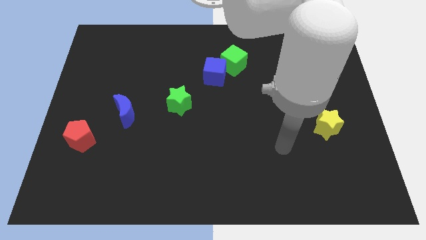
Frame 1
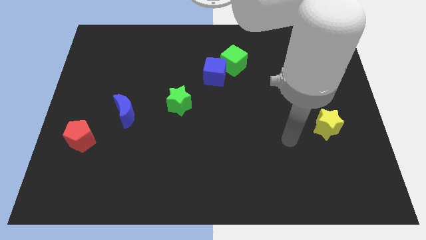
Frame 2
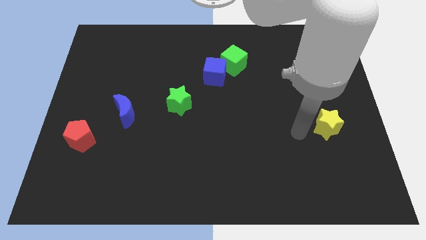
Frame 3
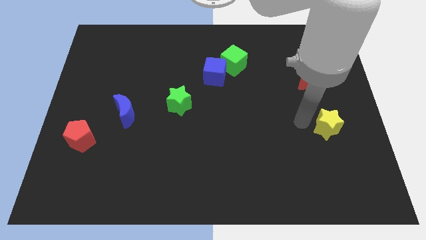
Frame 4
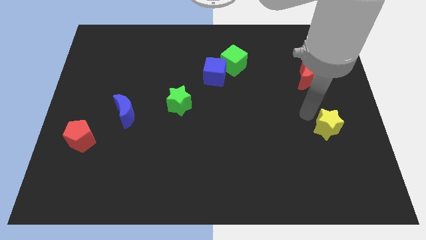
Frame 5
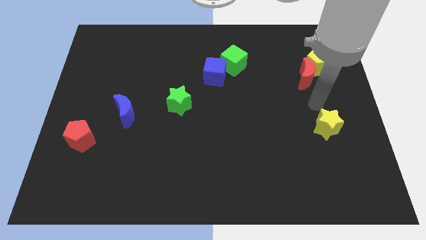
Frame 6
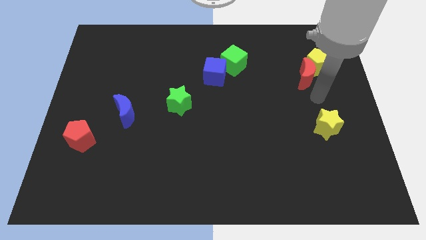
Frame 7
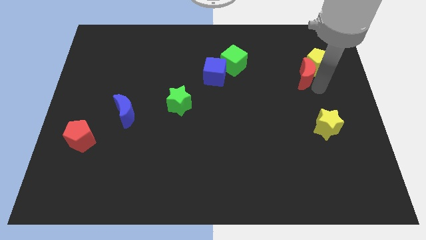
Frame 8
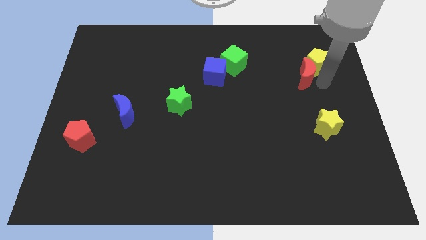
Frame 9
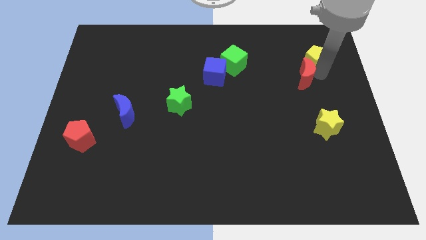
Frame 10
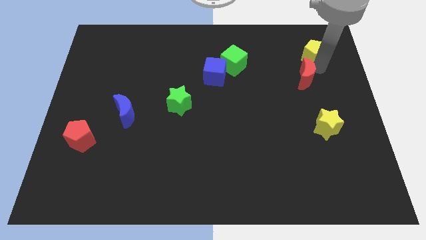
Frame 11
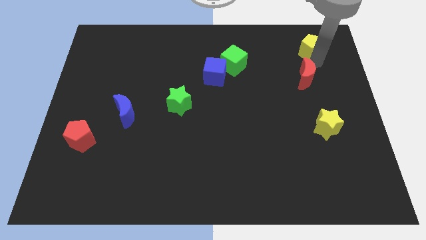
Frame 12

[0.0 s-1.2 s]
pull the red moon apart from the yellow pentagon

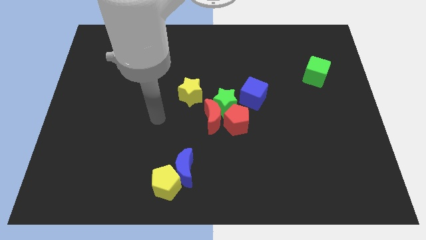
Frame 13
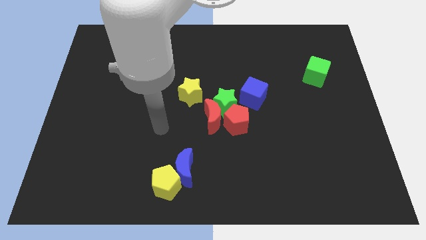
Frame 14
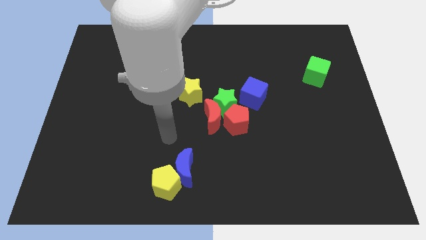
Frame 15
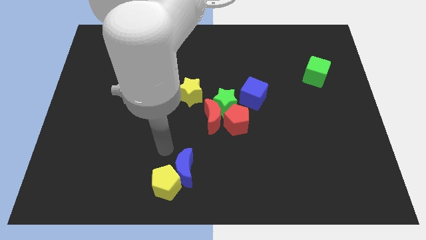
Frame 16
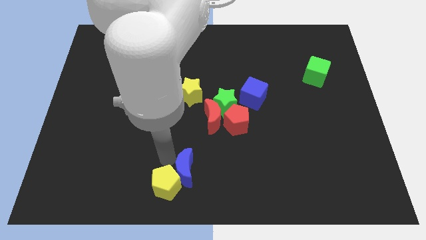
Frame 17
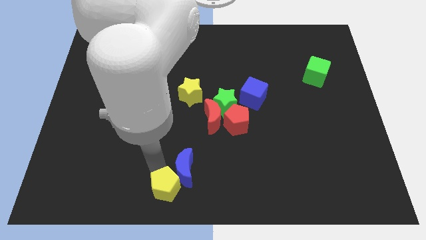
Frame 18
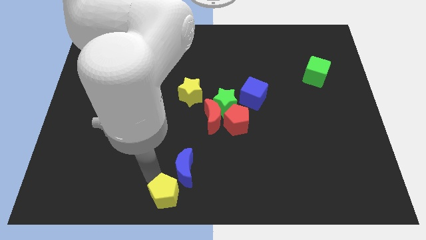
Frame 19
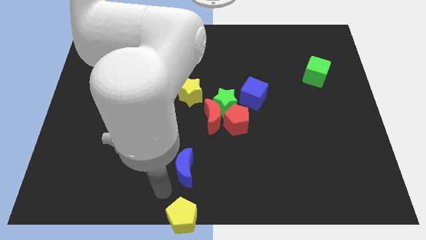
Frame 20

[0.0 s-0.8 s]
move the blue moon away from the yellow pentagon

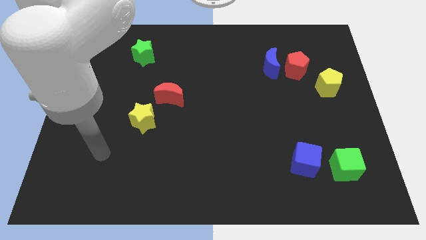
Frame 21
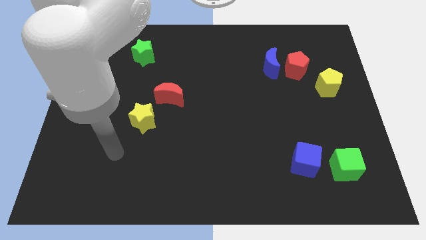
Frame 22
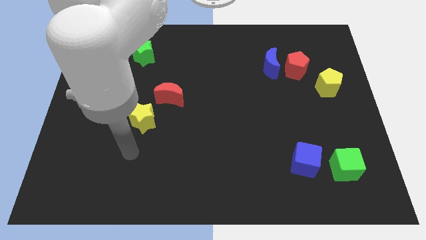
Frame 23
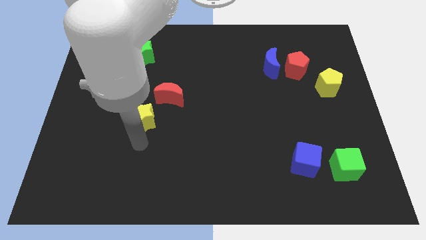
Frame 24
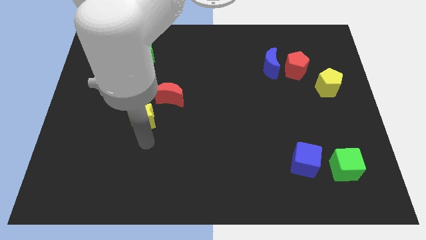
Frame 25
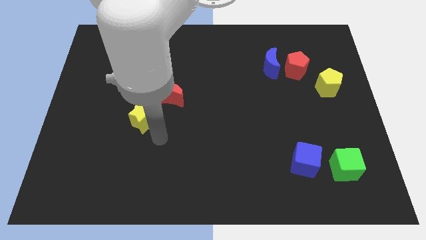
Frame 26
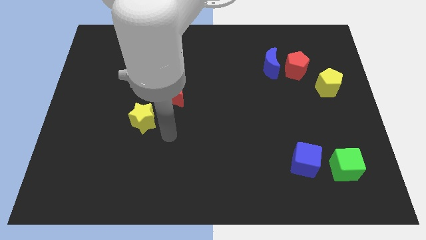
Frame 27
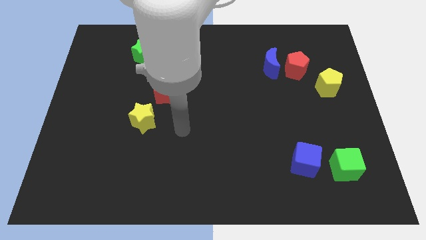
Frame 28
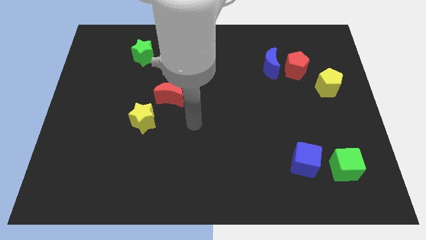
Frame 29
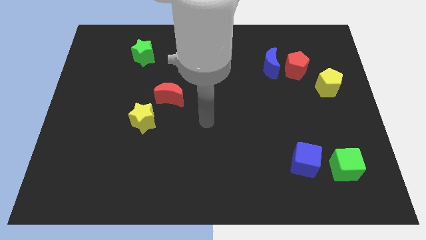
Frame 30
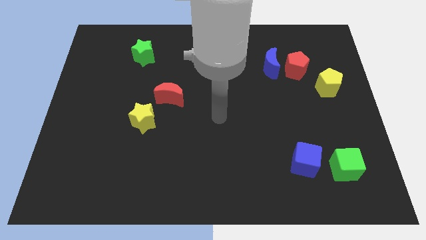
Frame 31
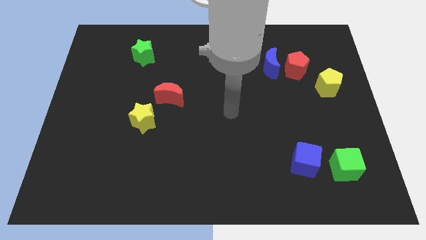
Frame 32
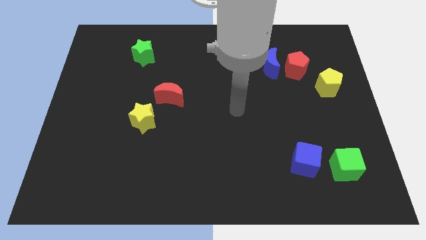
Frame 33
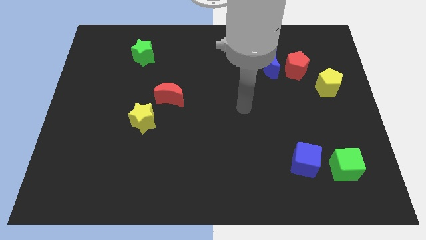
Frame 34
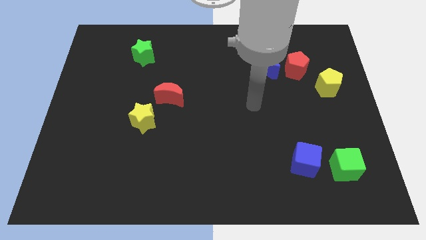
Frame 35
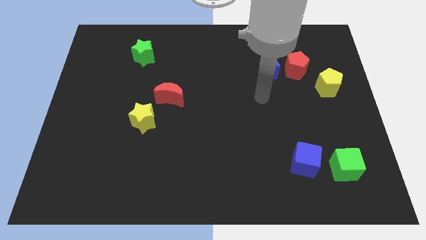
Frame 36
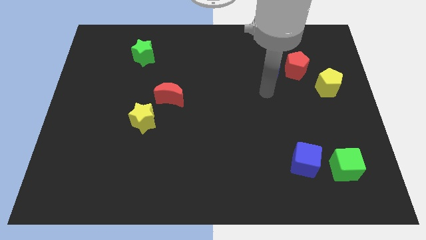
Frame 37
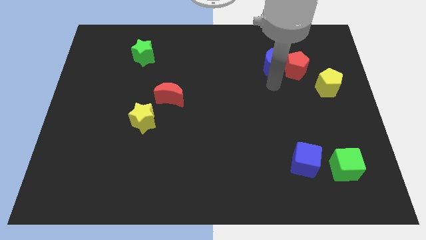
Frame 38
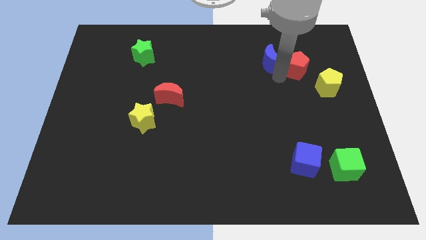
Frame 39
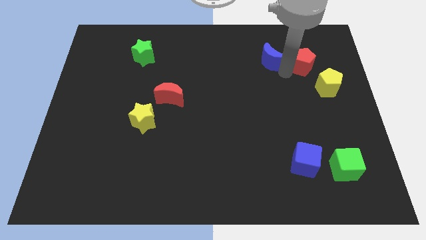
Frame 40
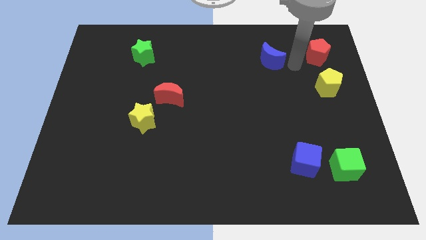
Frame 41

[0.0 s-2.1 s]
move the blue moon away from the red pentagon

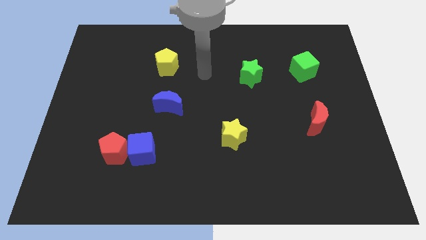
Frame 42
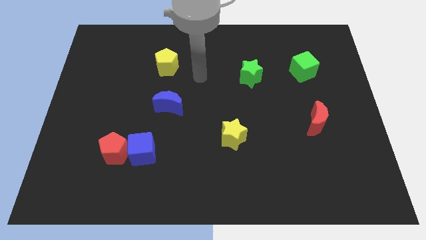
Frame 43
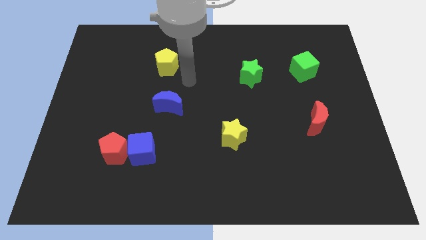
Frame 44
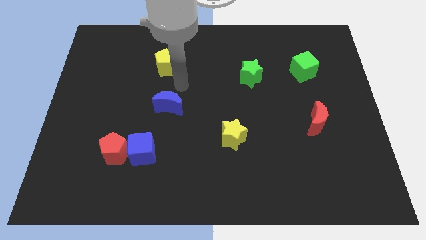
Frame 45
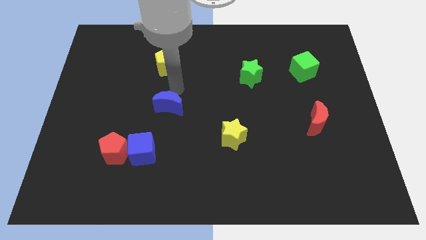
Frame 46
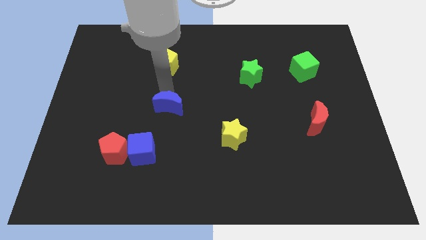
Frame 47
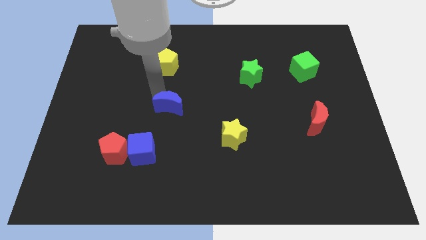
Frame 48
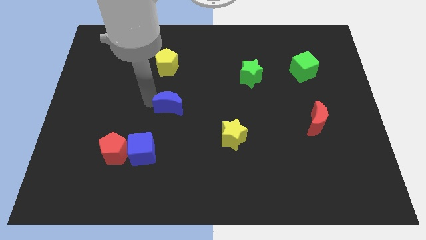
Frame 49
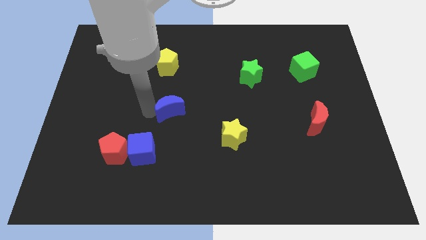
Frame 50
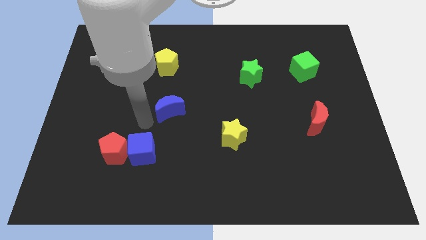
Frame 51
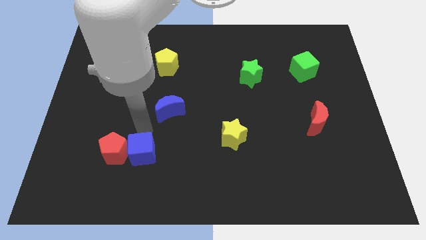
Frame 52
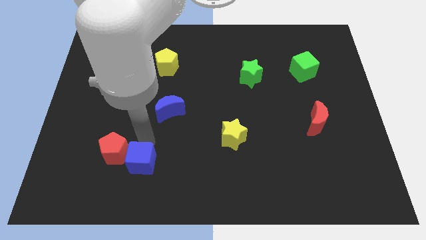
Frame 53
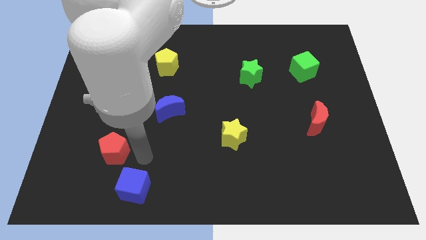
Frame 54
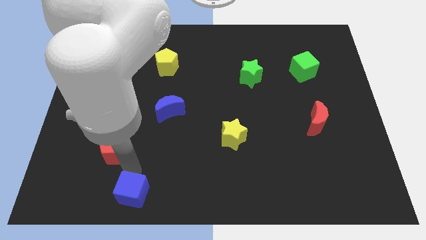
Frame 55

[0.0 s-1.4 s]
move the red pentagon away from the blue cube

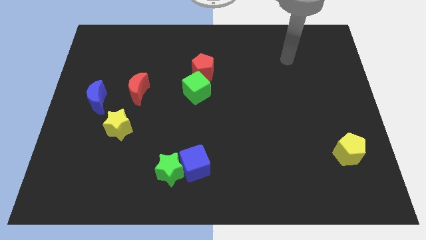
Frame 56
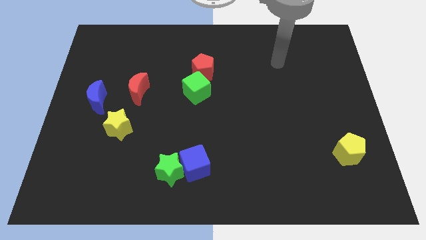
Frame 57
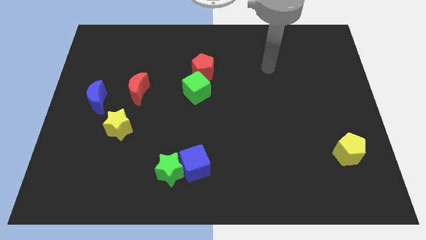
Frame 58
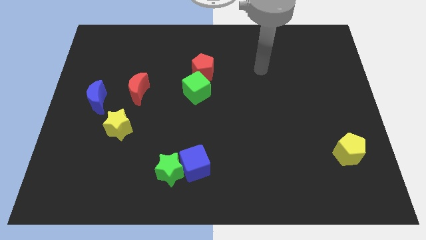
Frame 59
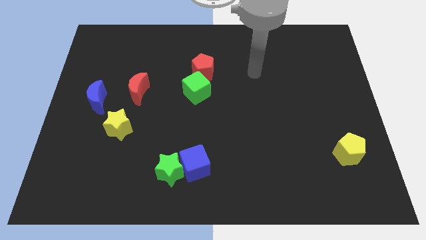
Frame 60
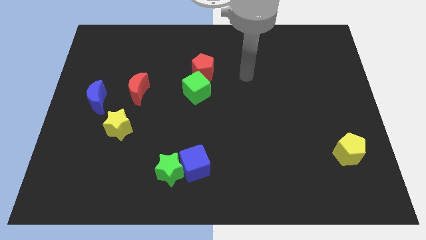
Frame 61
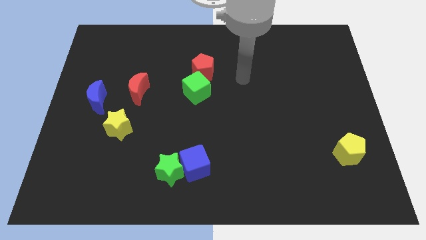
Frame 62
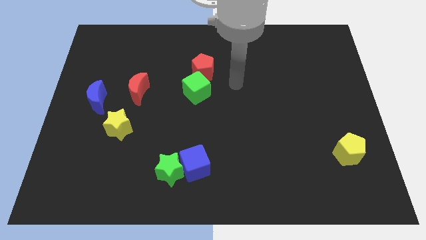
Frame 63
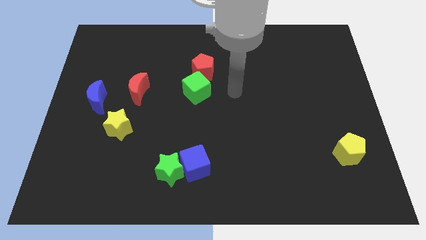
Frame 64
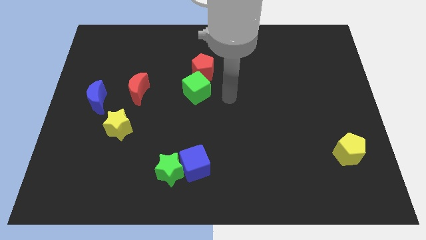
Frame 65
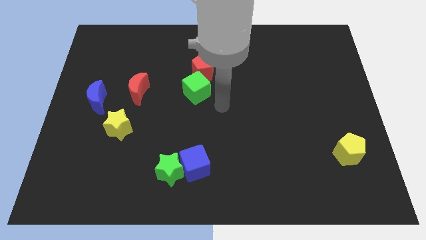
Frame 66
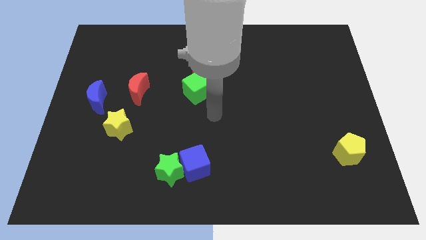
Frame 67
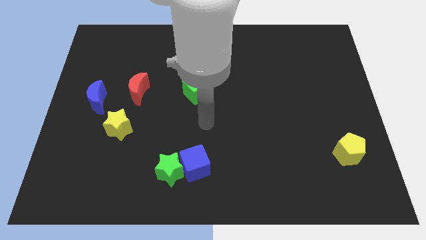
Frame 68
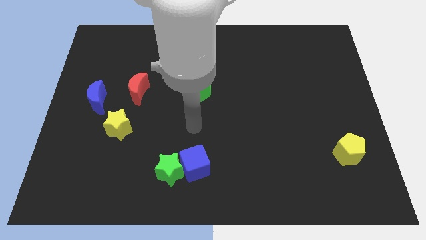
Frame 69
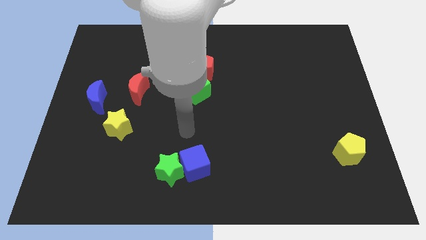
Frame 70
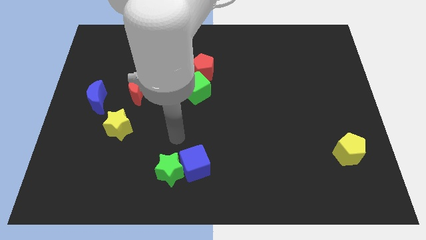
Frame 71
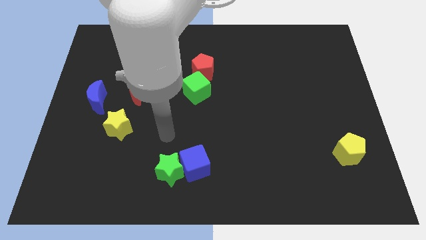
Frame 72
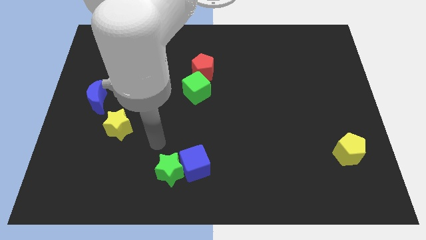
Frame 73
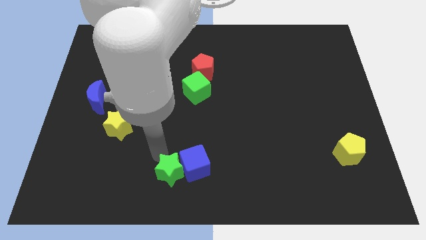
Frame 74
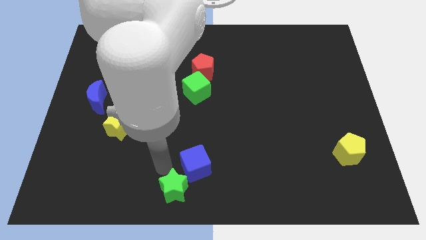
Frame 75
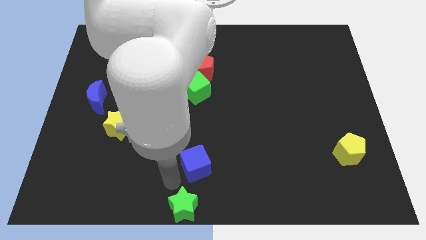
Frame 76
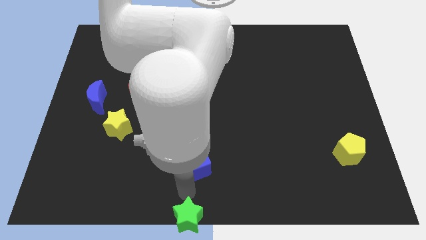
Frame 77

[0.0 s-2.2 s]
pull the blue cube apart from the green star

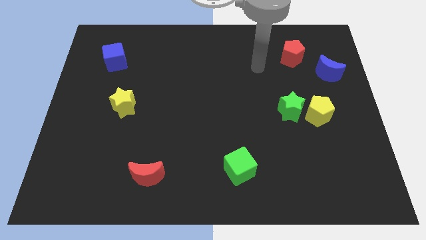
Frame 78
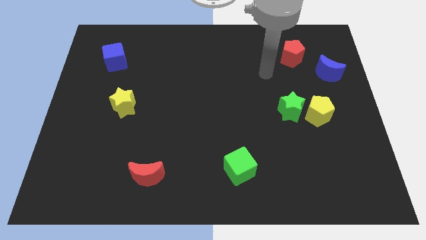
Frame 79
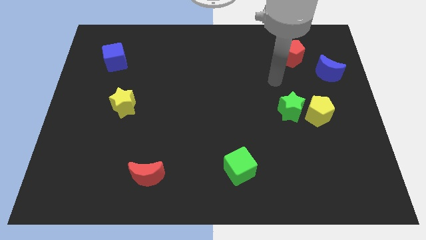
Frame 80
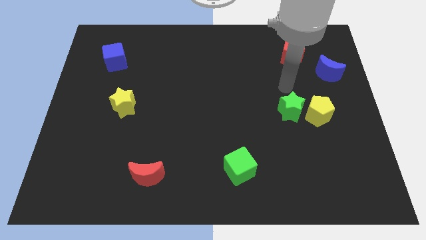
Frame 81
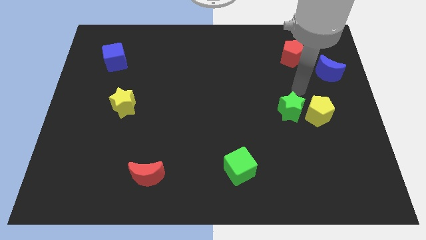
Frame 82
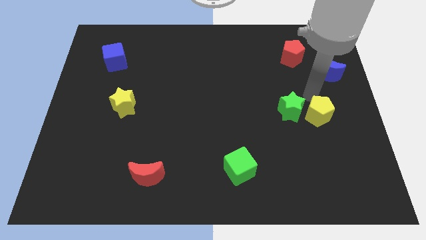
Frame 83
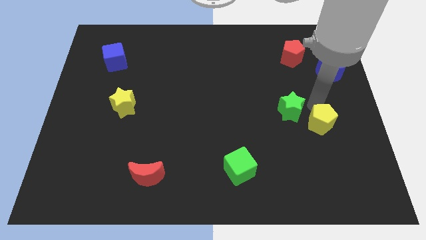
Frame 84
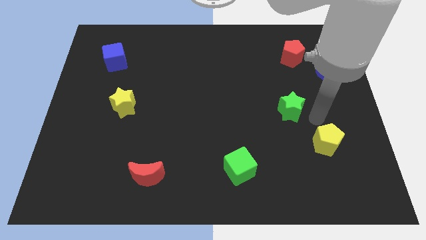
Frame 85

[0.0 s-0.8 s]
move the green star away from the yellow pentagon

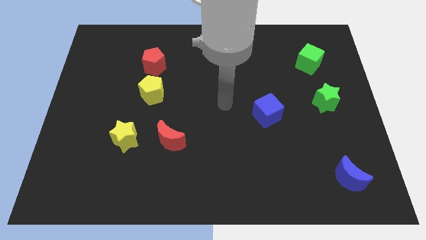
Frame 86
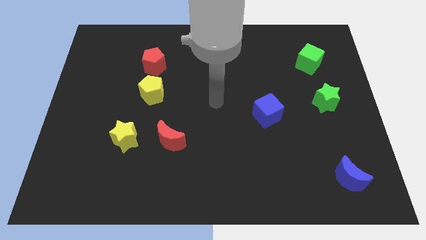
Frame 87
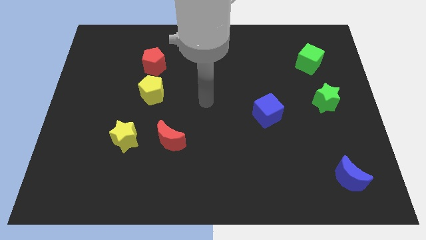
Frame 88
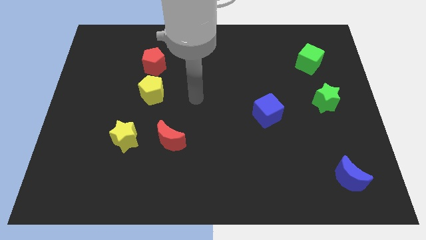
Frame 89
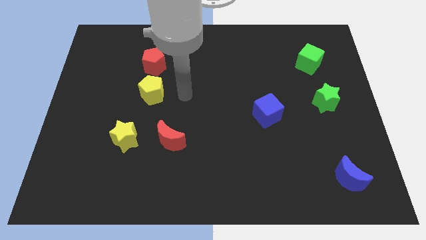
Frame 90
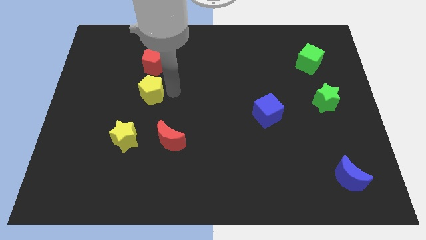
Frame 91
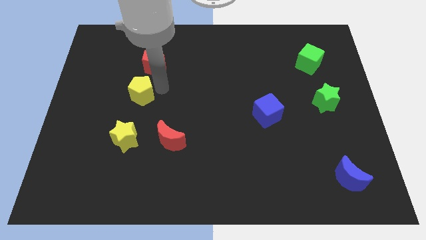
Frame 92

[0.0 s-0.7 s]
separate the red pentagon from the yellow pentagon

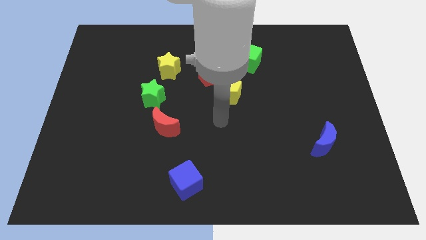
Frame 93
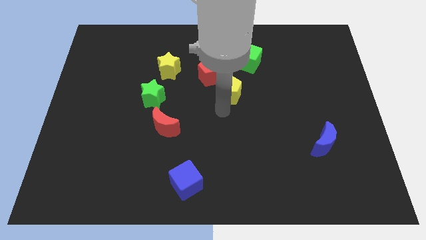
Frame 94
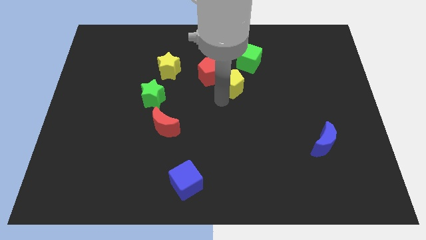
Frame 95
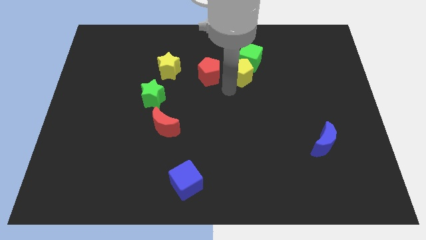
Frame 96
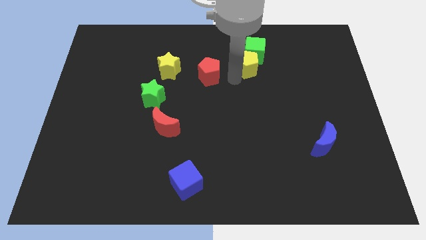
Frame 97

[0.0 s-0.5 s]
pull the red pentagon apart from the yellow pentagon
